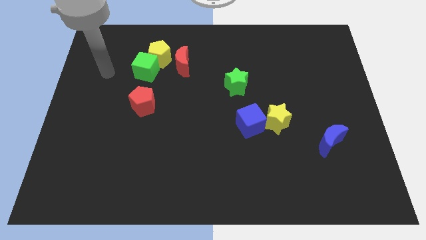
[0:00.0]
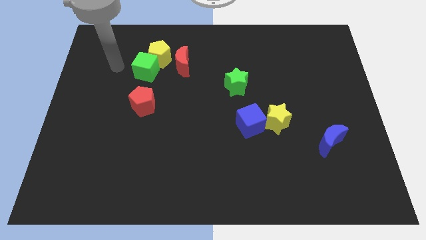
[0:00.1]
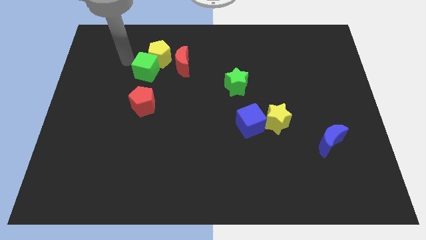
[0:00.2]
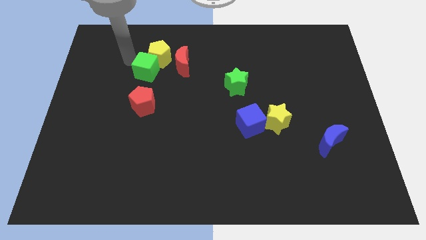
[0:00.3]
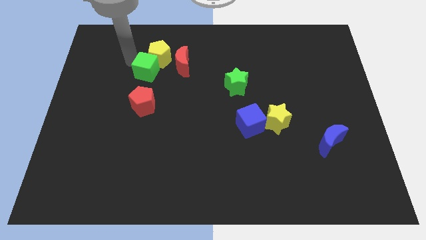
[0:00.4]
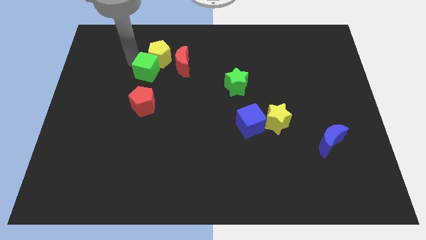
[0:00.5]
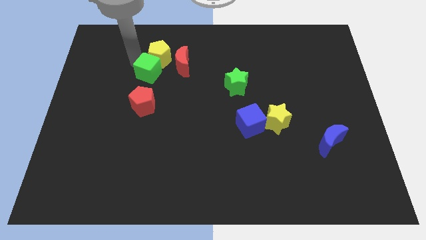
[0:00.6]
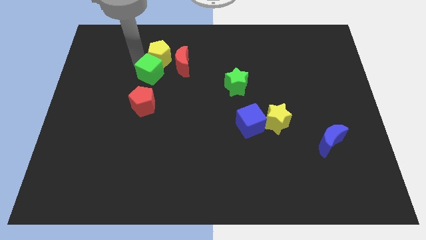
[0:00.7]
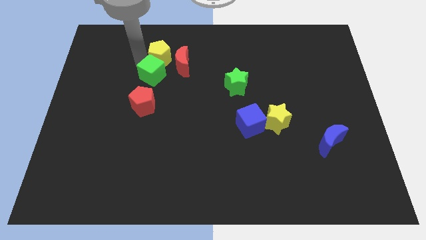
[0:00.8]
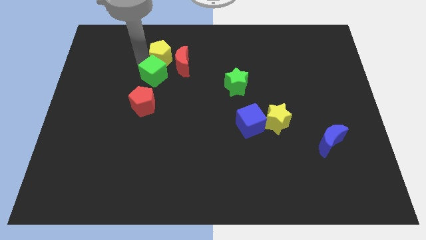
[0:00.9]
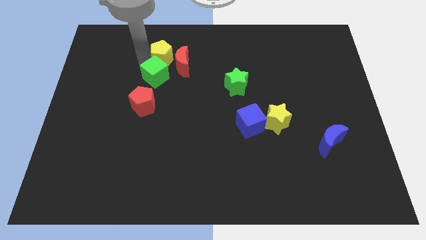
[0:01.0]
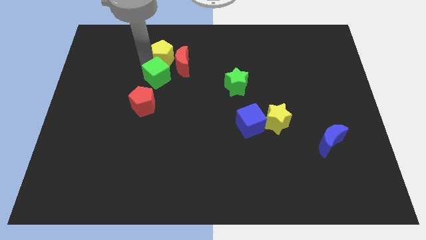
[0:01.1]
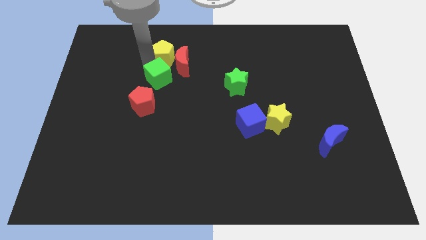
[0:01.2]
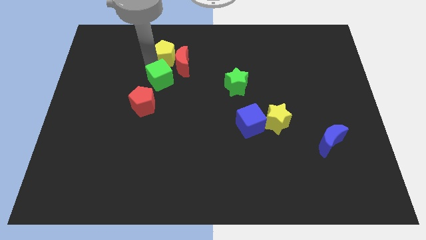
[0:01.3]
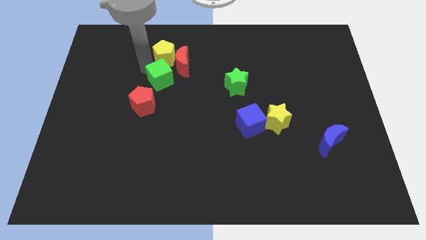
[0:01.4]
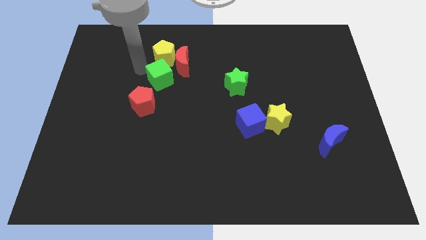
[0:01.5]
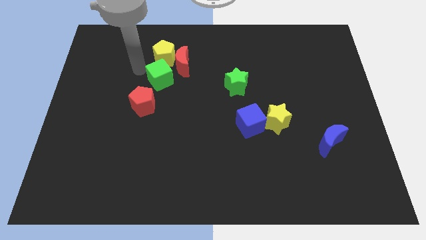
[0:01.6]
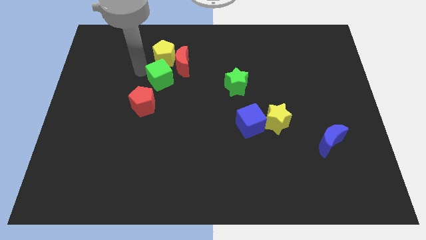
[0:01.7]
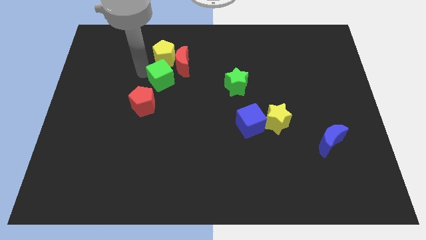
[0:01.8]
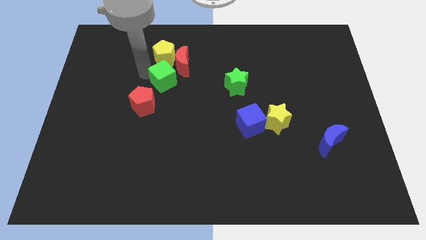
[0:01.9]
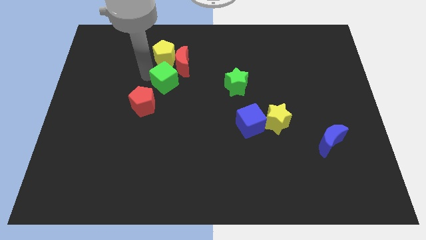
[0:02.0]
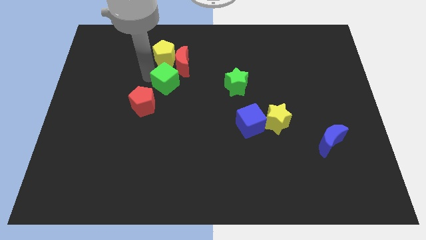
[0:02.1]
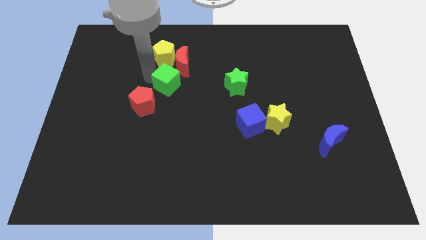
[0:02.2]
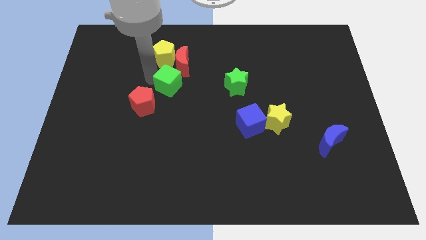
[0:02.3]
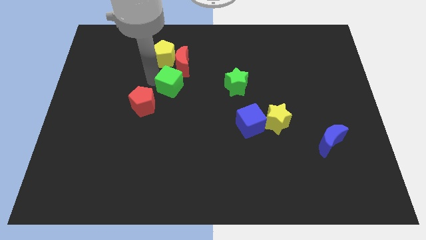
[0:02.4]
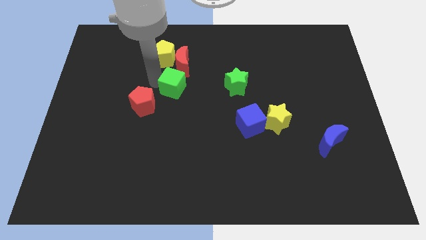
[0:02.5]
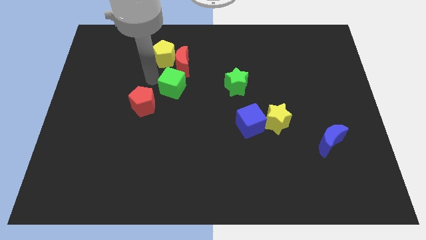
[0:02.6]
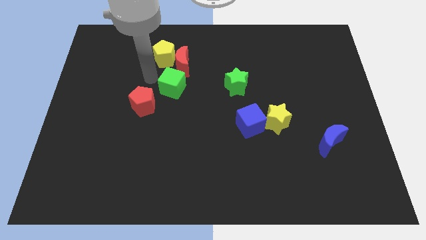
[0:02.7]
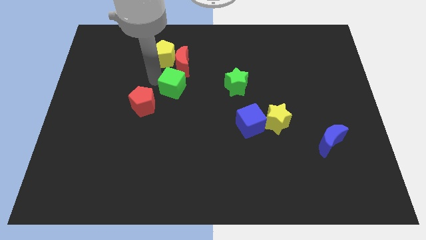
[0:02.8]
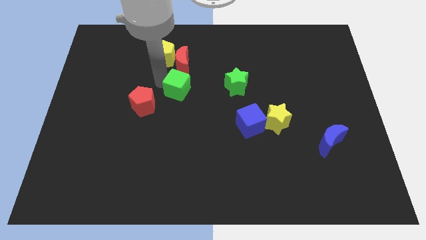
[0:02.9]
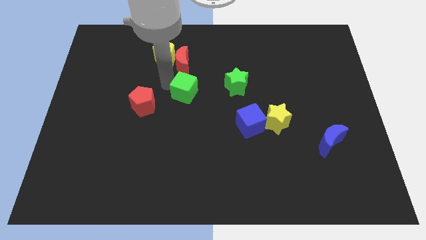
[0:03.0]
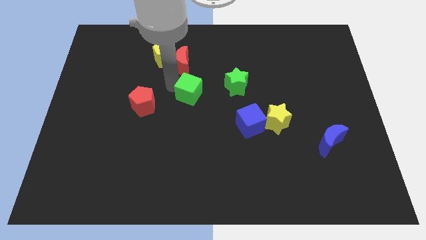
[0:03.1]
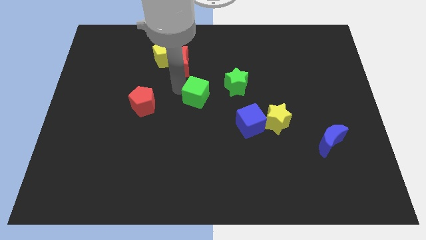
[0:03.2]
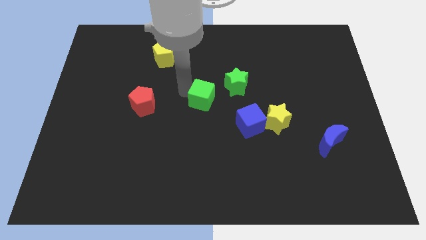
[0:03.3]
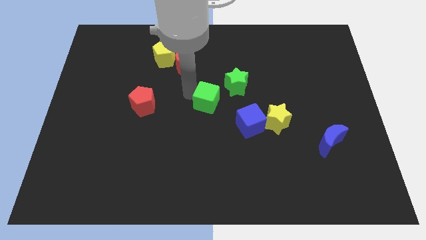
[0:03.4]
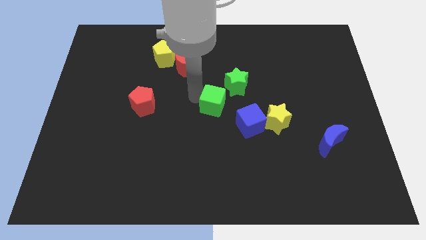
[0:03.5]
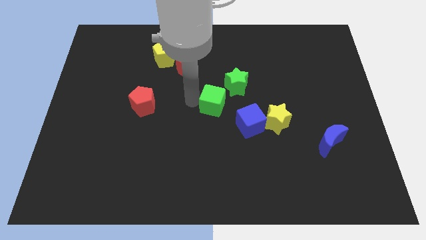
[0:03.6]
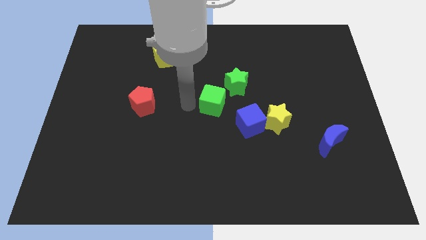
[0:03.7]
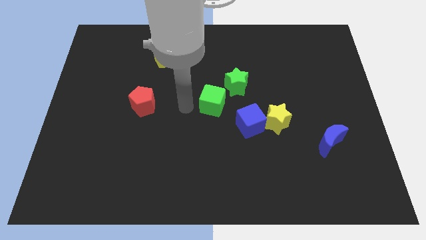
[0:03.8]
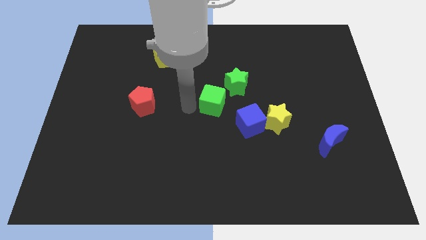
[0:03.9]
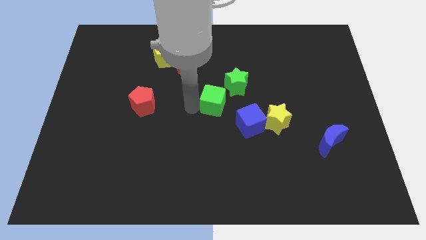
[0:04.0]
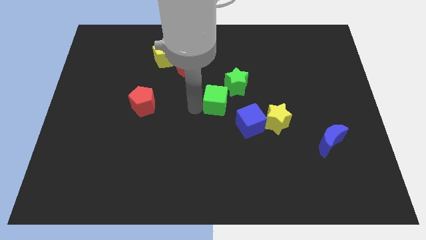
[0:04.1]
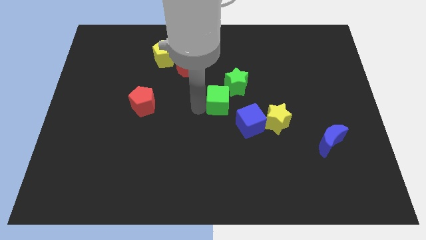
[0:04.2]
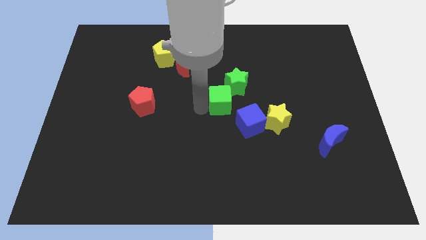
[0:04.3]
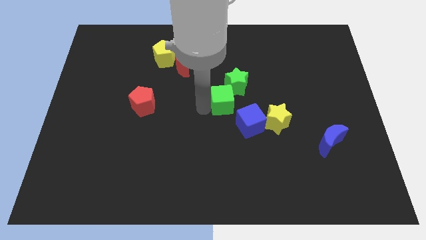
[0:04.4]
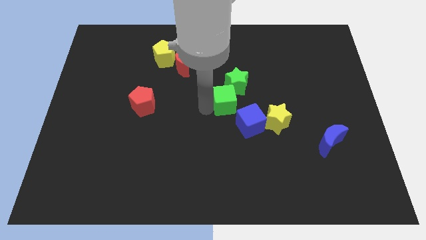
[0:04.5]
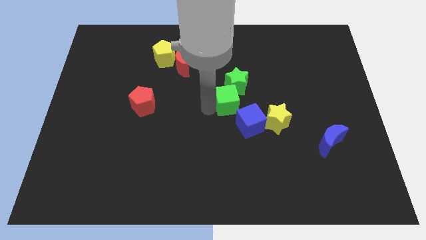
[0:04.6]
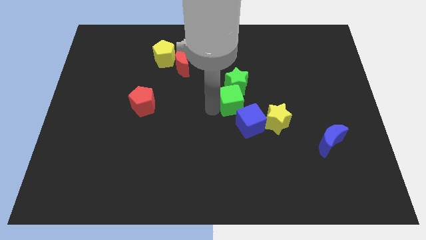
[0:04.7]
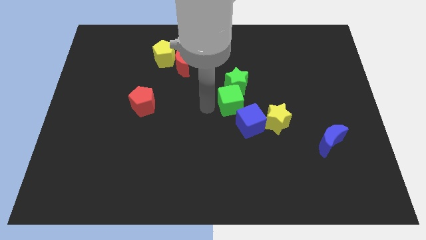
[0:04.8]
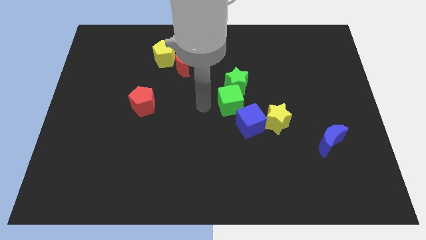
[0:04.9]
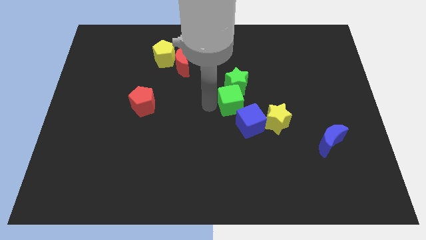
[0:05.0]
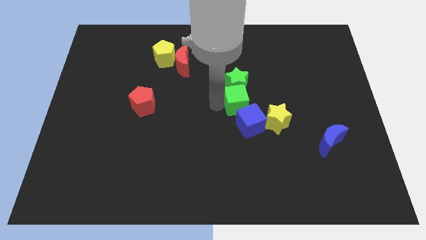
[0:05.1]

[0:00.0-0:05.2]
put the green cube to the bottom right side of the green star

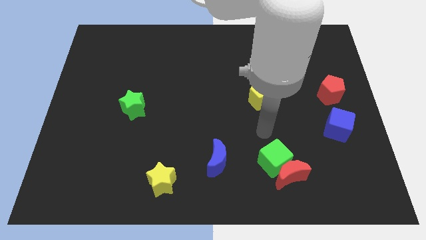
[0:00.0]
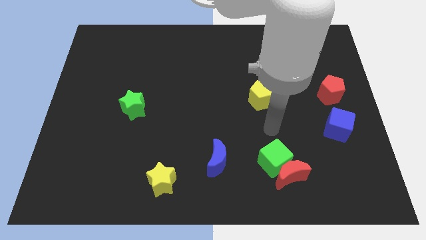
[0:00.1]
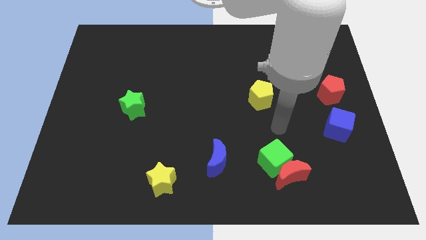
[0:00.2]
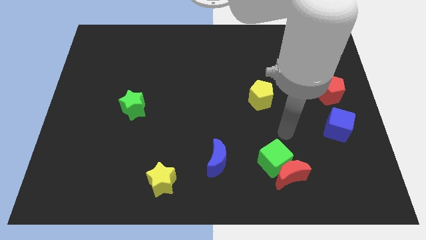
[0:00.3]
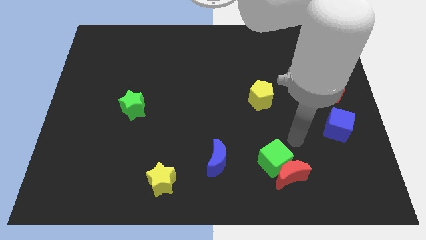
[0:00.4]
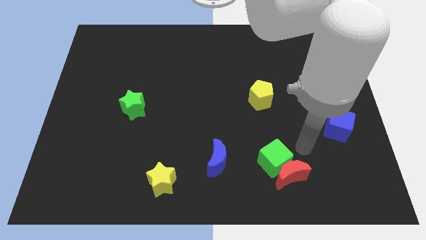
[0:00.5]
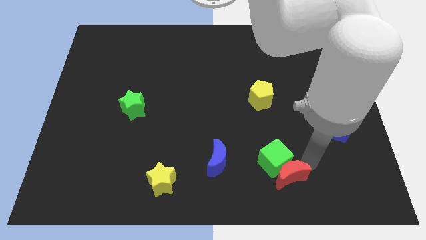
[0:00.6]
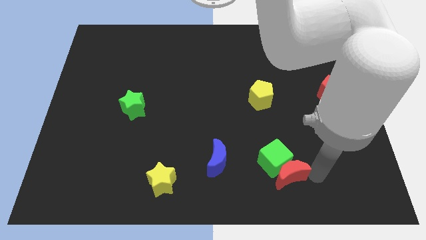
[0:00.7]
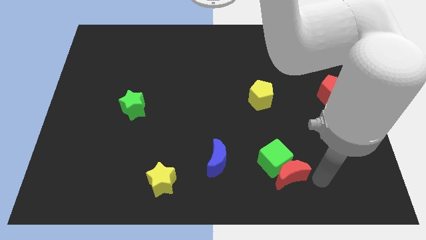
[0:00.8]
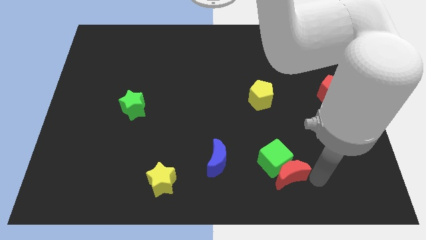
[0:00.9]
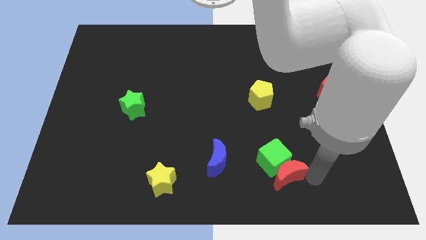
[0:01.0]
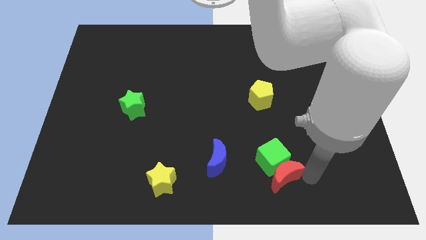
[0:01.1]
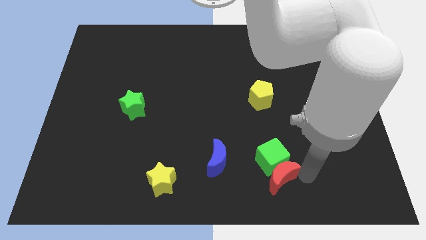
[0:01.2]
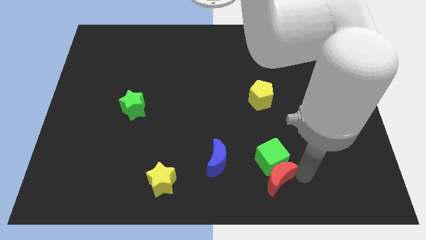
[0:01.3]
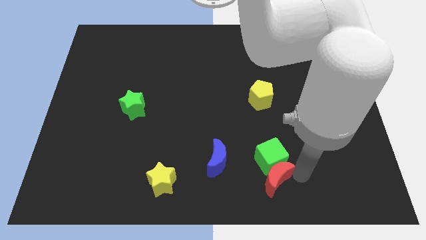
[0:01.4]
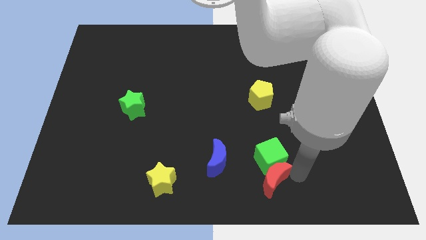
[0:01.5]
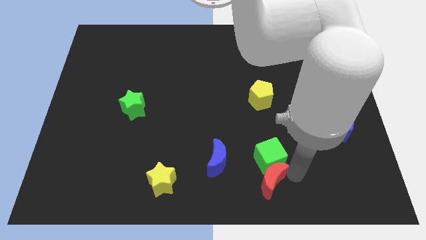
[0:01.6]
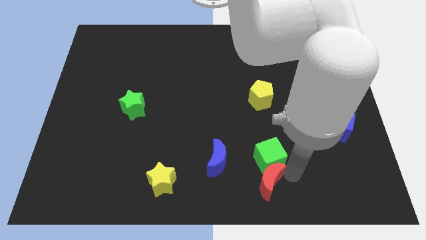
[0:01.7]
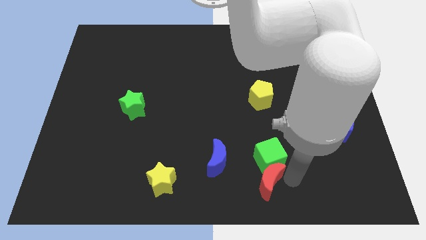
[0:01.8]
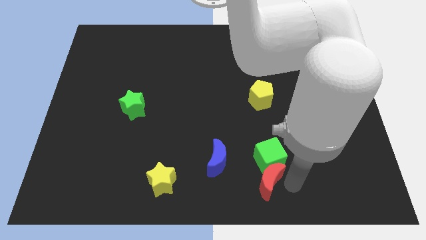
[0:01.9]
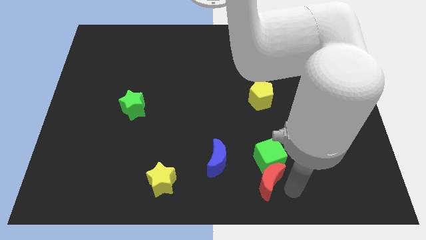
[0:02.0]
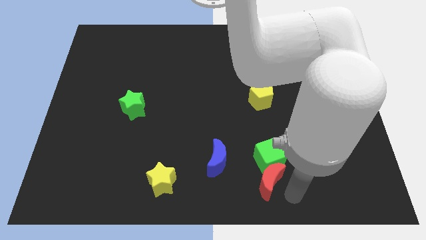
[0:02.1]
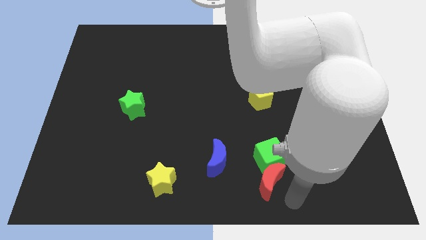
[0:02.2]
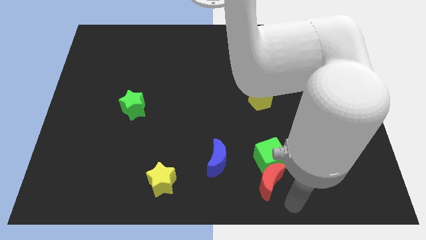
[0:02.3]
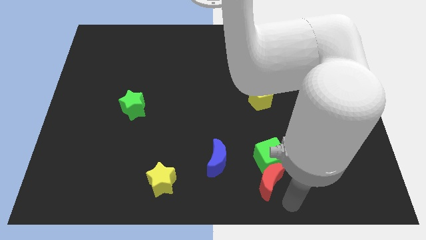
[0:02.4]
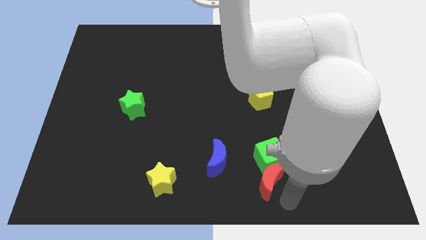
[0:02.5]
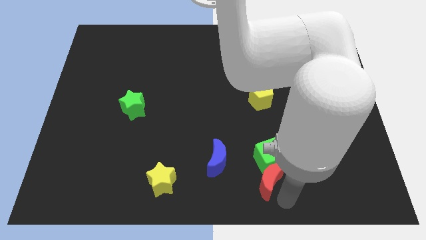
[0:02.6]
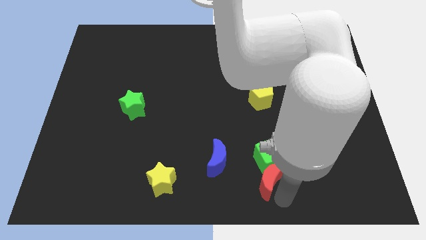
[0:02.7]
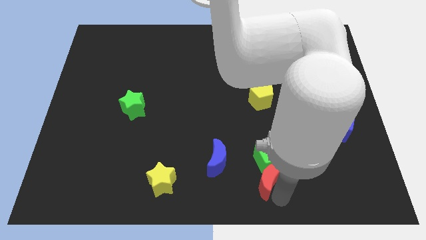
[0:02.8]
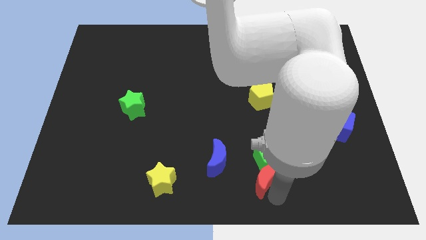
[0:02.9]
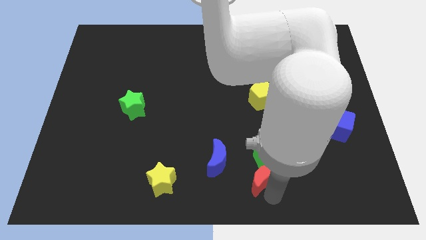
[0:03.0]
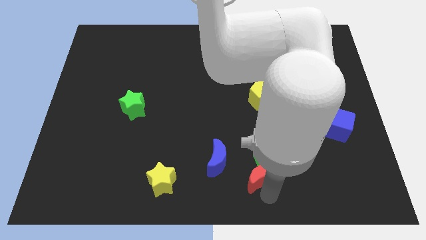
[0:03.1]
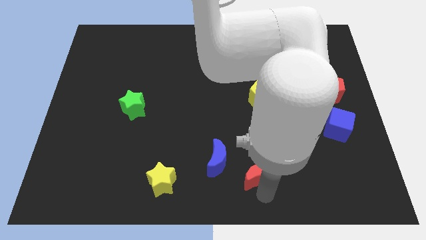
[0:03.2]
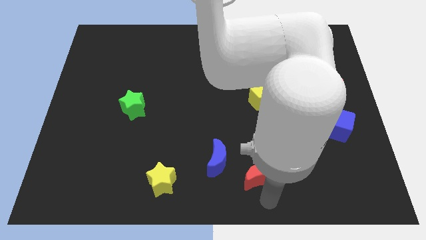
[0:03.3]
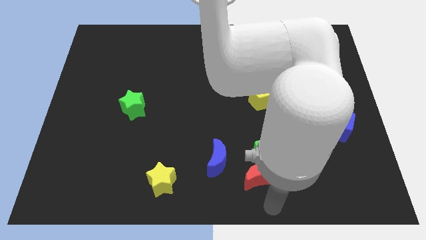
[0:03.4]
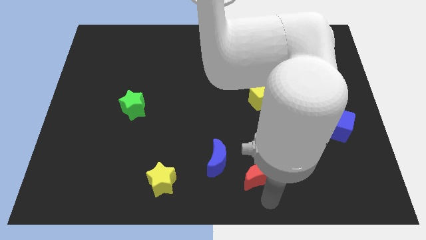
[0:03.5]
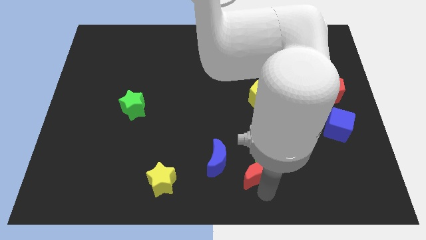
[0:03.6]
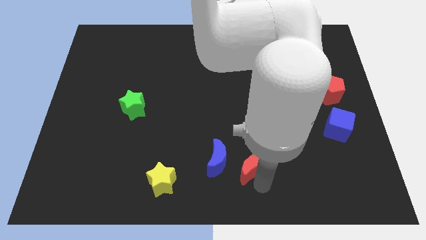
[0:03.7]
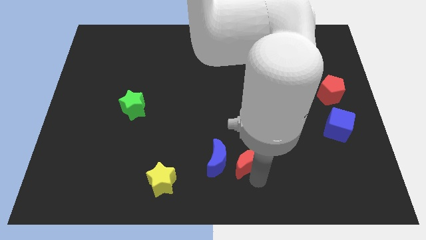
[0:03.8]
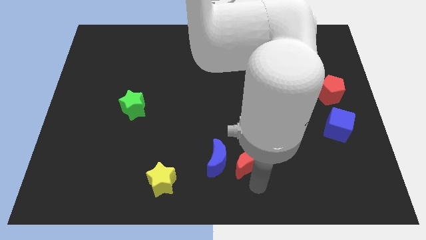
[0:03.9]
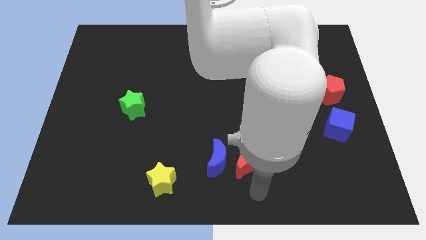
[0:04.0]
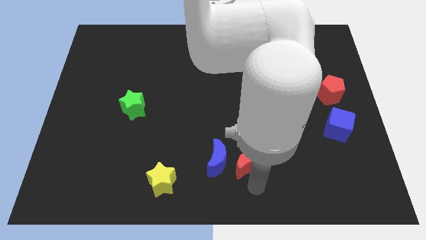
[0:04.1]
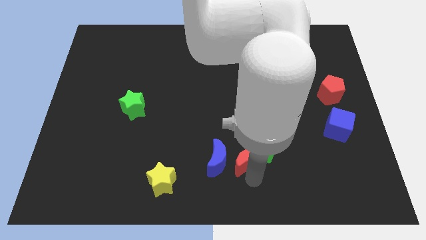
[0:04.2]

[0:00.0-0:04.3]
slide the red moon to the top right side of the blue moon
